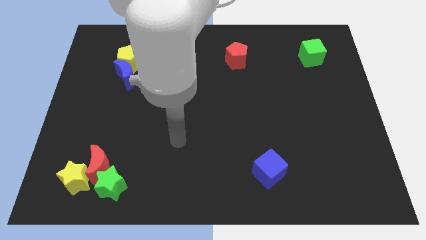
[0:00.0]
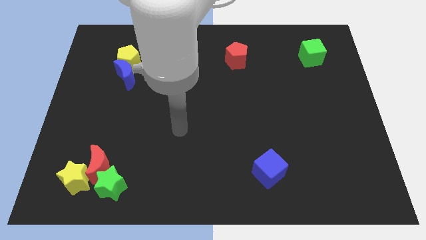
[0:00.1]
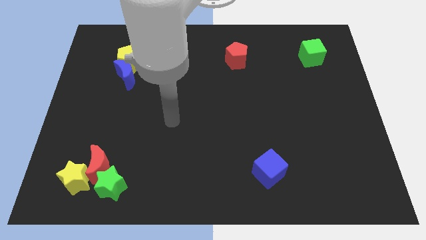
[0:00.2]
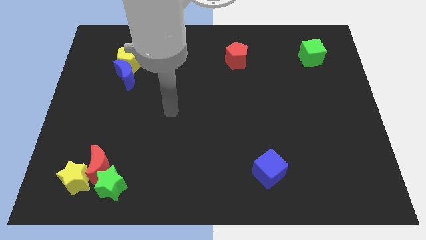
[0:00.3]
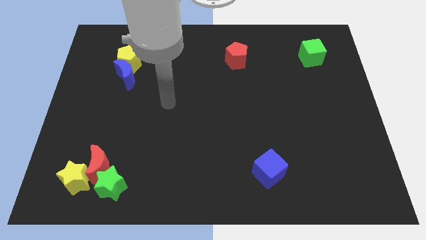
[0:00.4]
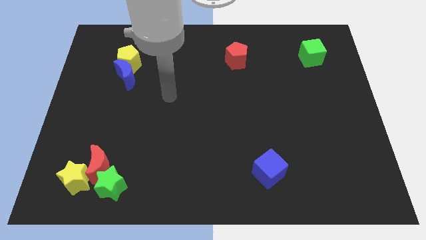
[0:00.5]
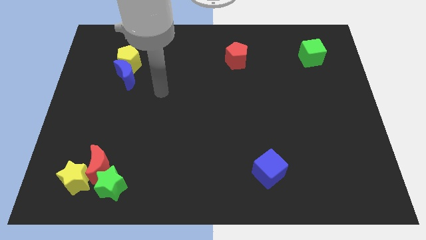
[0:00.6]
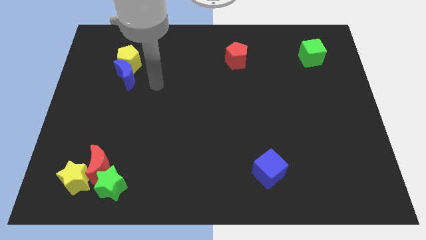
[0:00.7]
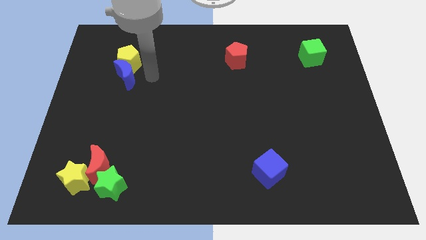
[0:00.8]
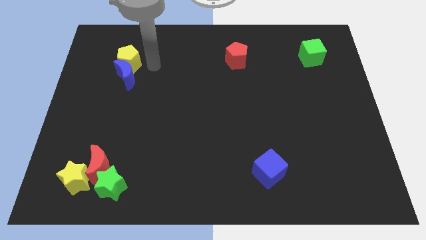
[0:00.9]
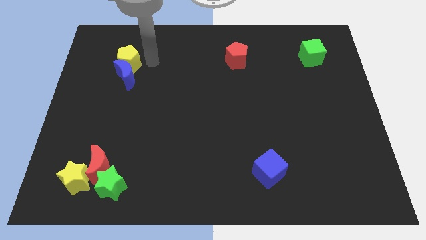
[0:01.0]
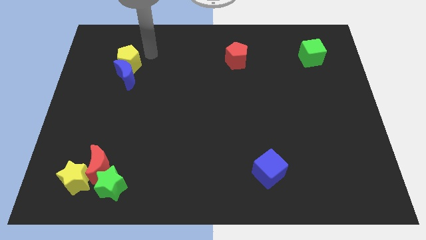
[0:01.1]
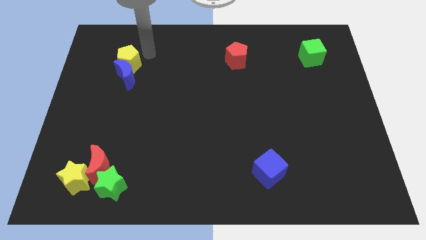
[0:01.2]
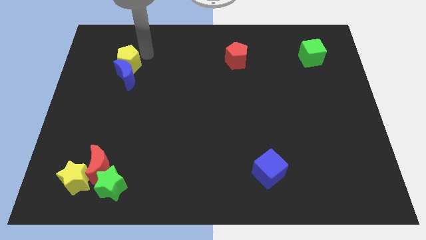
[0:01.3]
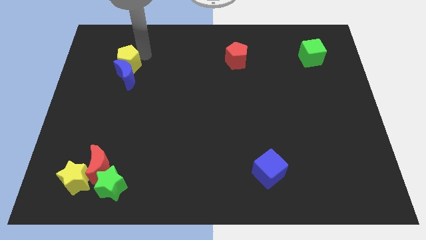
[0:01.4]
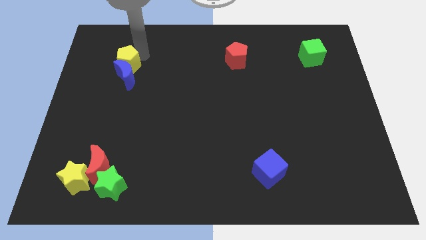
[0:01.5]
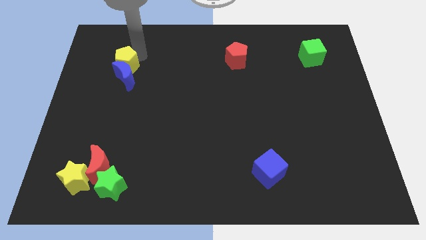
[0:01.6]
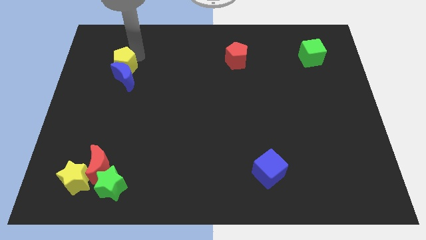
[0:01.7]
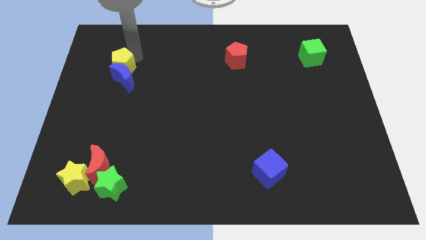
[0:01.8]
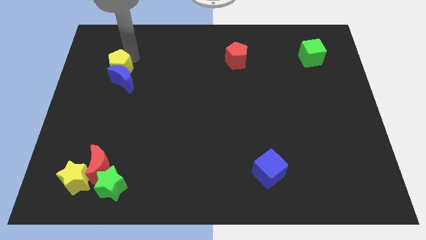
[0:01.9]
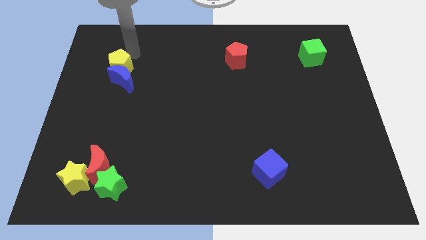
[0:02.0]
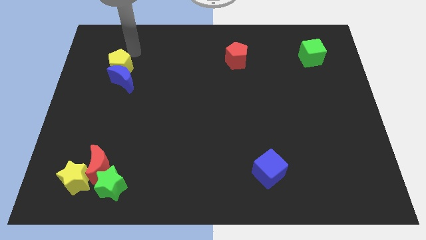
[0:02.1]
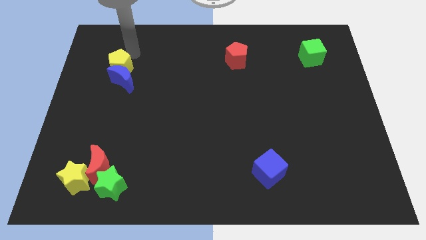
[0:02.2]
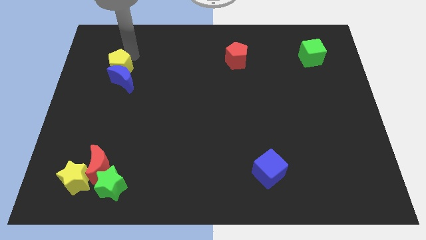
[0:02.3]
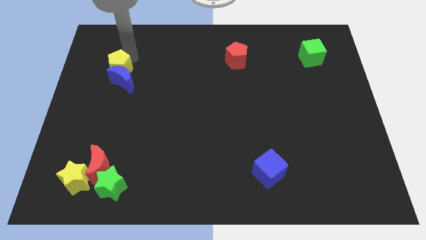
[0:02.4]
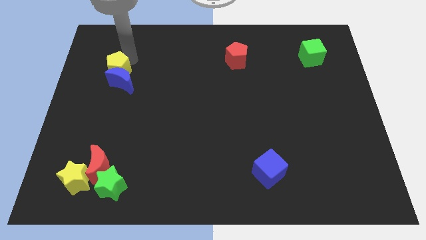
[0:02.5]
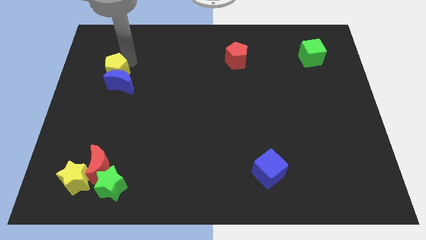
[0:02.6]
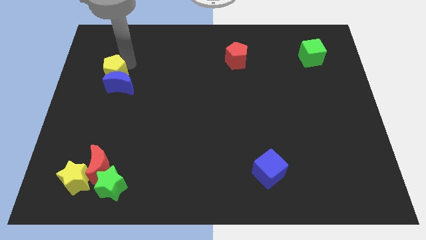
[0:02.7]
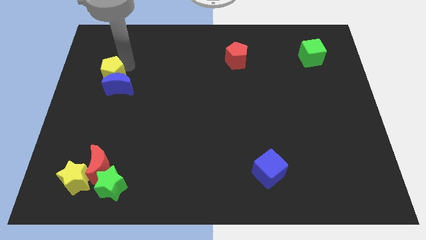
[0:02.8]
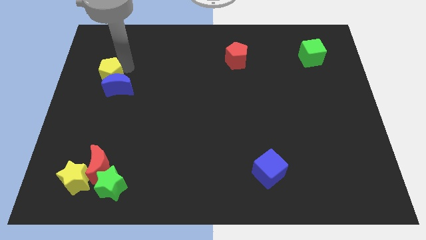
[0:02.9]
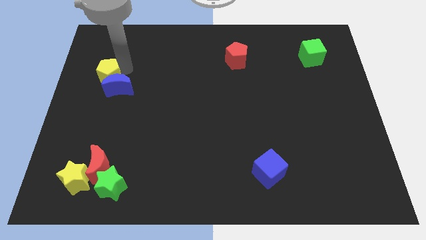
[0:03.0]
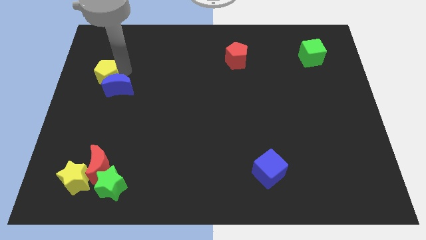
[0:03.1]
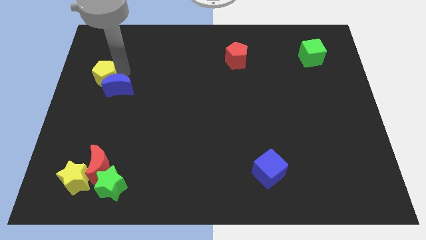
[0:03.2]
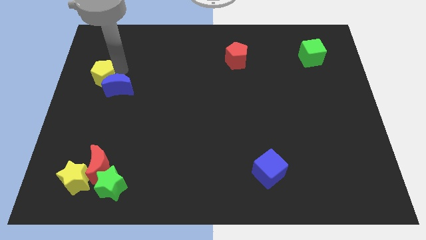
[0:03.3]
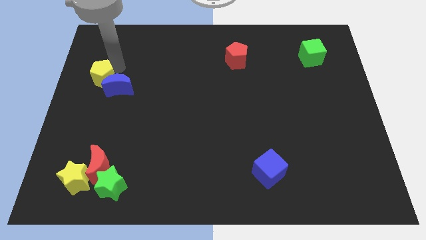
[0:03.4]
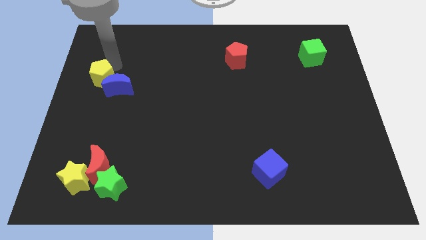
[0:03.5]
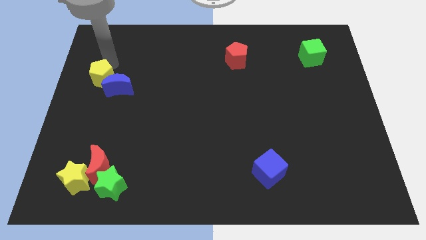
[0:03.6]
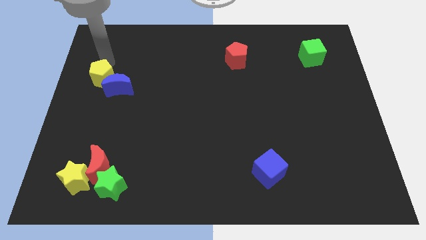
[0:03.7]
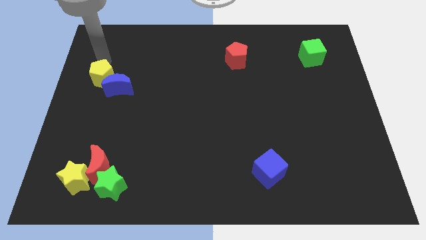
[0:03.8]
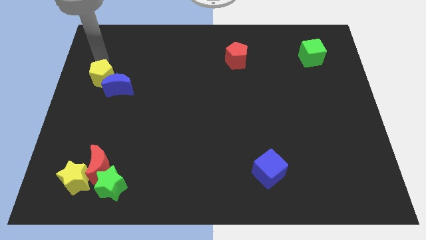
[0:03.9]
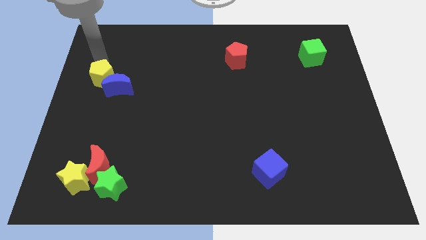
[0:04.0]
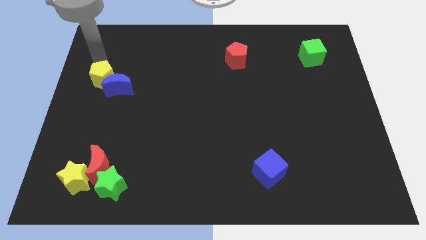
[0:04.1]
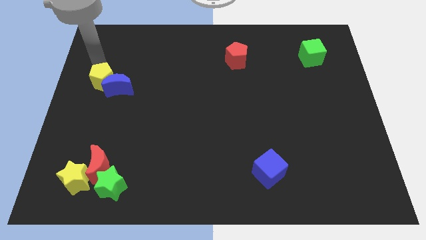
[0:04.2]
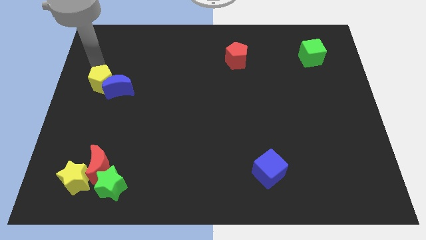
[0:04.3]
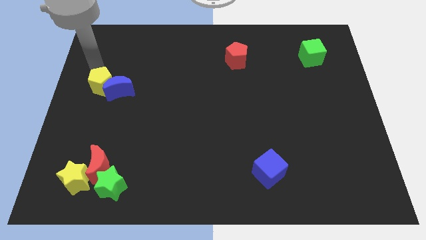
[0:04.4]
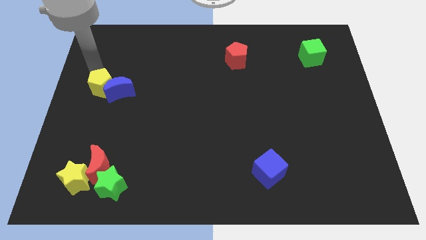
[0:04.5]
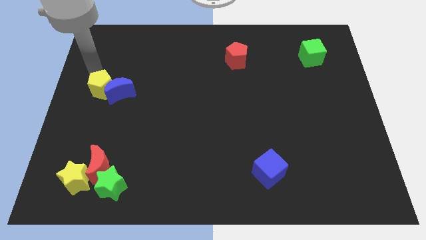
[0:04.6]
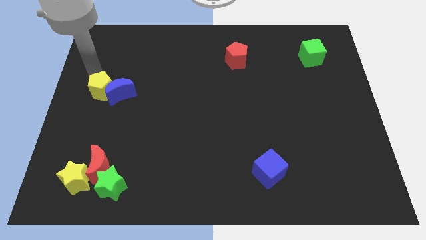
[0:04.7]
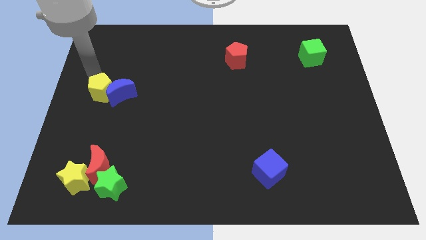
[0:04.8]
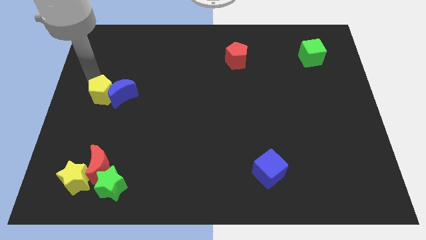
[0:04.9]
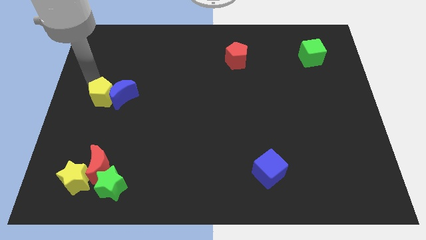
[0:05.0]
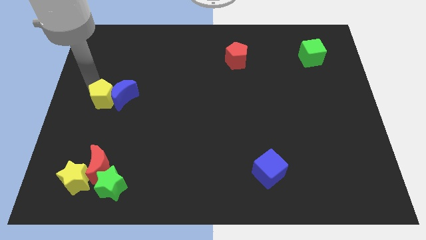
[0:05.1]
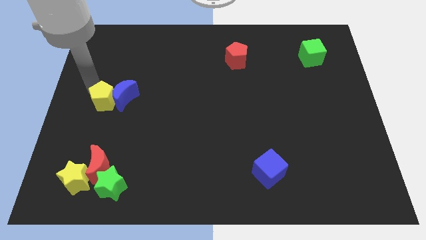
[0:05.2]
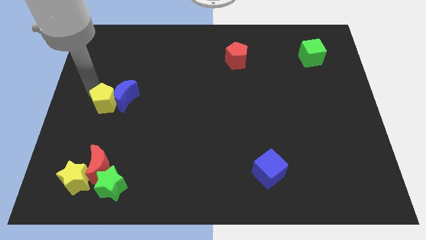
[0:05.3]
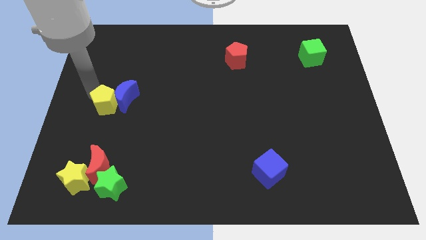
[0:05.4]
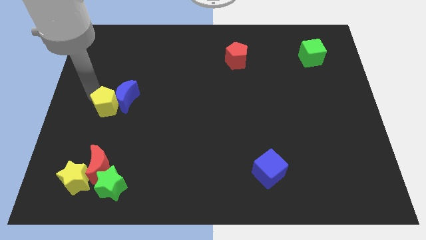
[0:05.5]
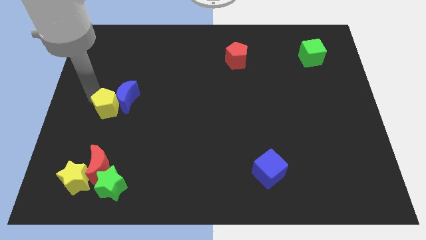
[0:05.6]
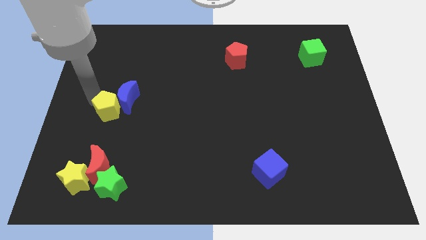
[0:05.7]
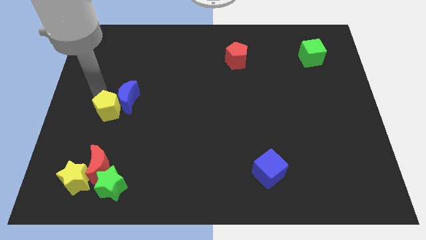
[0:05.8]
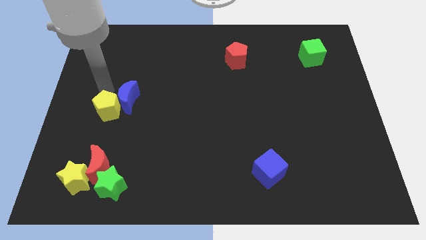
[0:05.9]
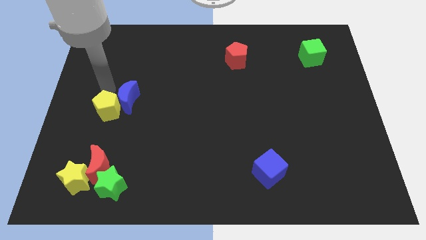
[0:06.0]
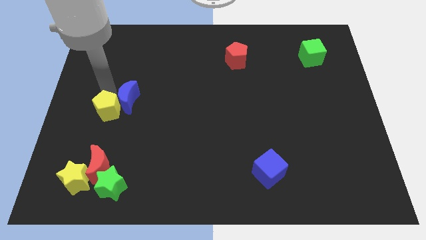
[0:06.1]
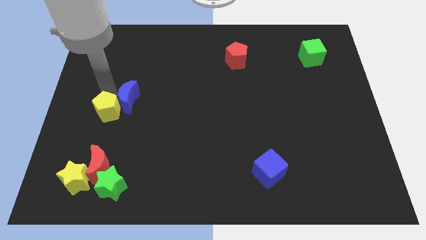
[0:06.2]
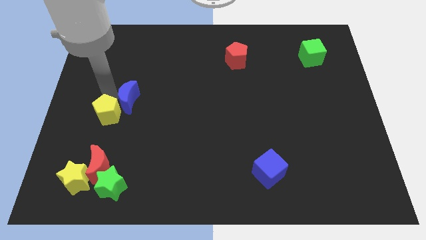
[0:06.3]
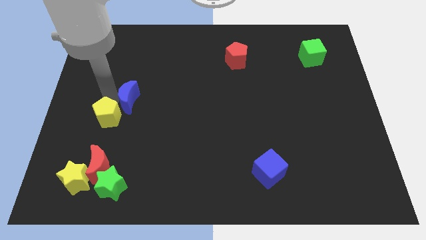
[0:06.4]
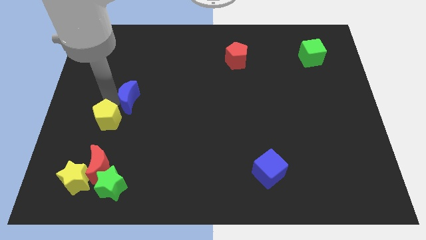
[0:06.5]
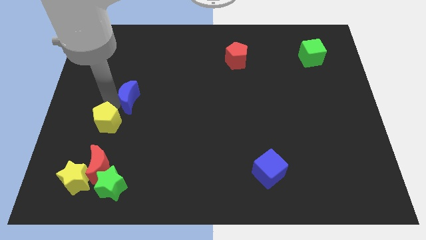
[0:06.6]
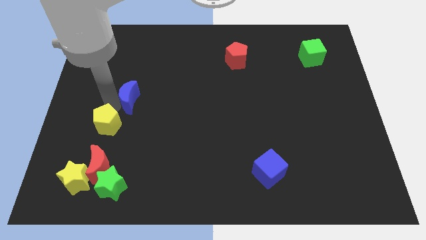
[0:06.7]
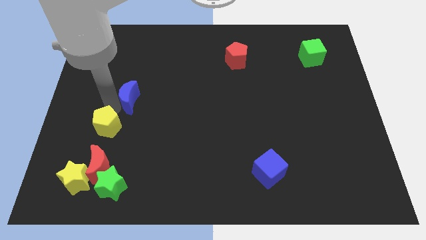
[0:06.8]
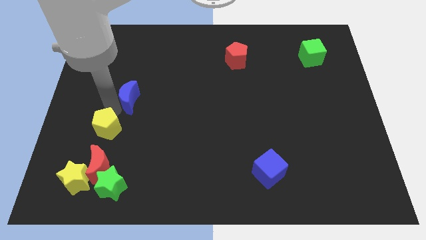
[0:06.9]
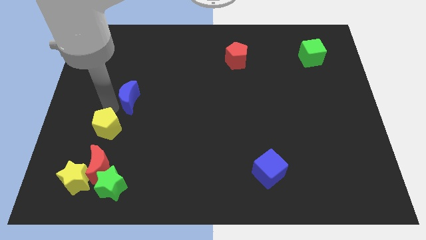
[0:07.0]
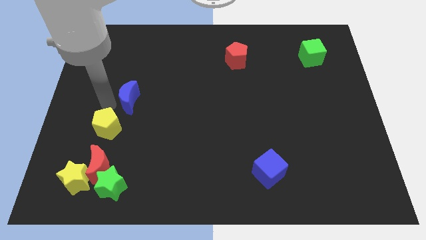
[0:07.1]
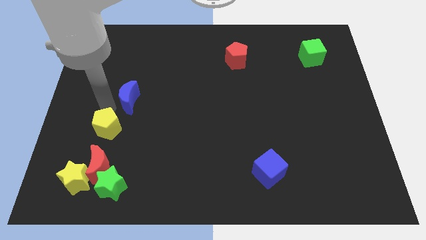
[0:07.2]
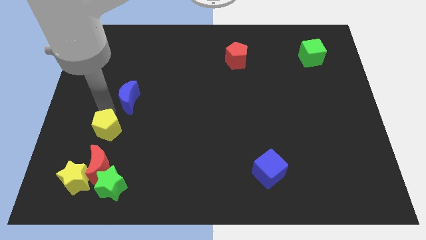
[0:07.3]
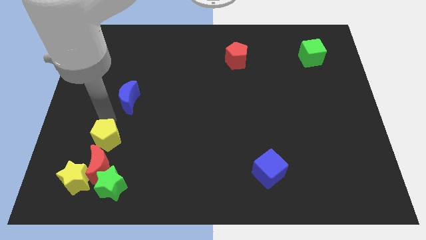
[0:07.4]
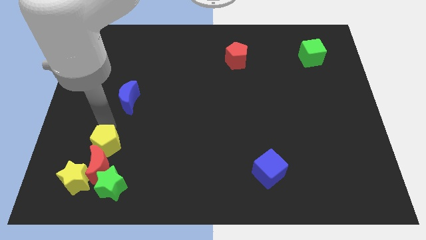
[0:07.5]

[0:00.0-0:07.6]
push the yellow pentagon towards the red moon
